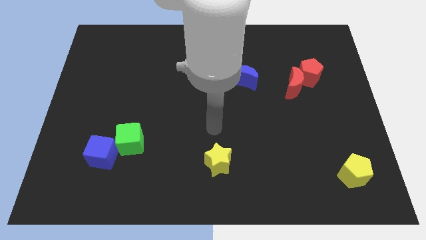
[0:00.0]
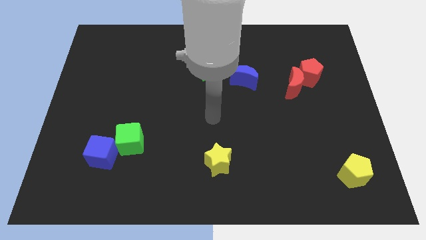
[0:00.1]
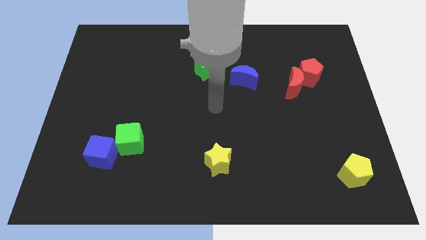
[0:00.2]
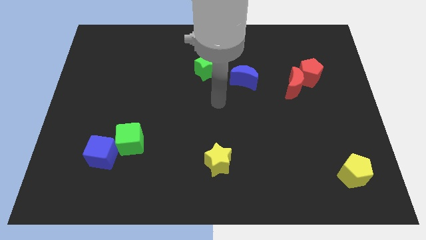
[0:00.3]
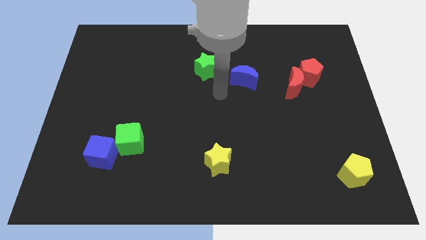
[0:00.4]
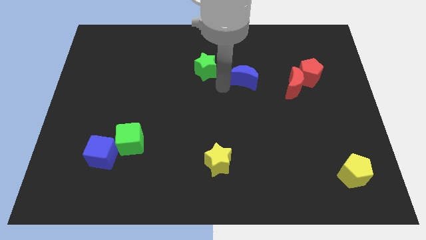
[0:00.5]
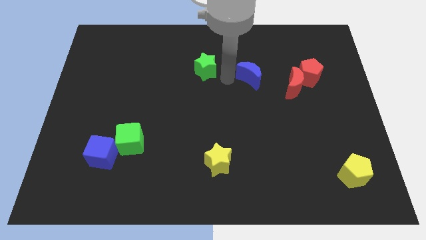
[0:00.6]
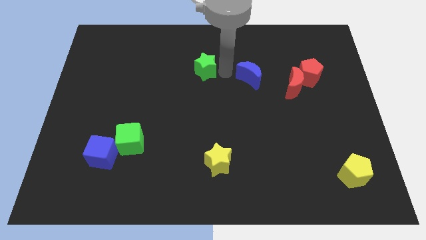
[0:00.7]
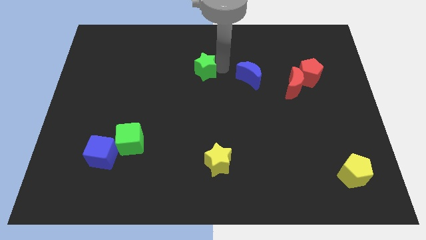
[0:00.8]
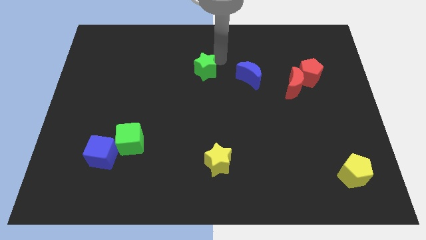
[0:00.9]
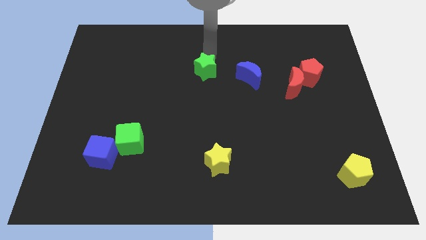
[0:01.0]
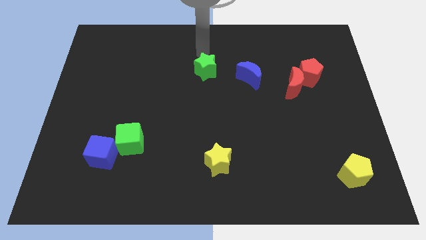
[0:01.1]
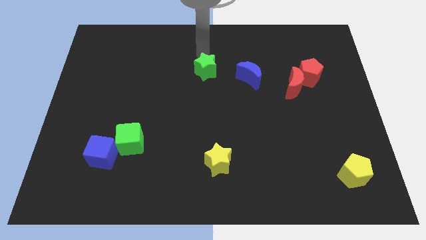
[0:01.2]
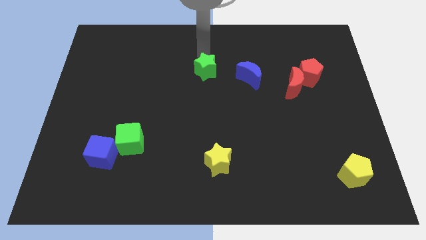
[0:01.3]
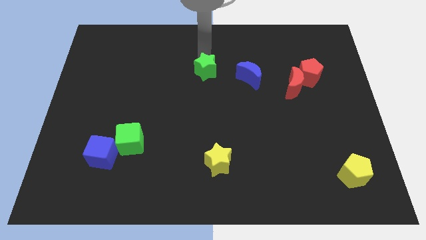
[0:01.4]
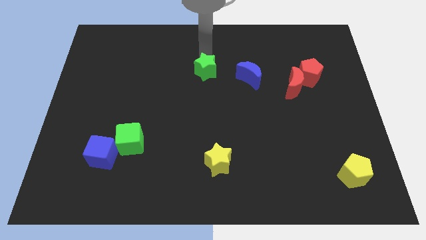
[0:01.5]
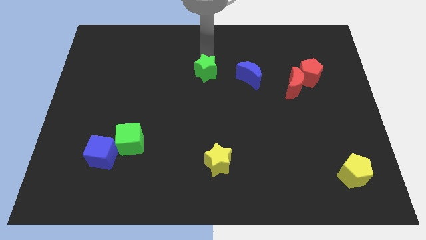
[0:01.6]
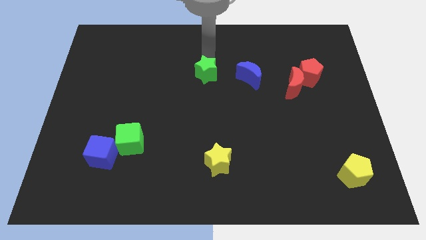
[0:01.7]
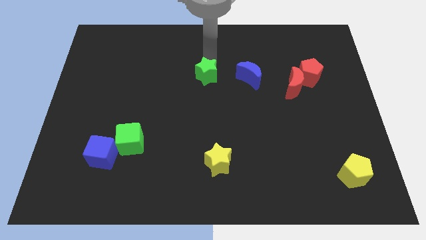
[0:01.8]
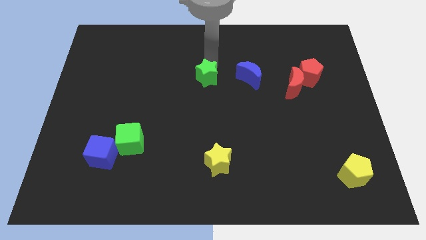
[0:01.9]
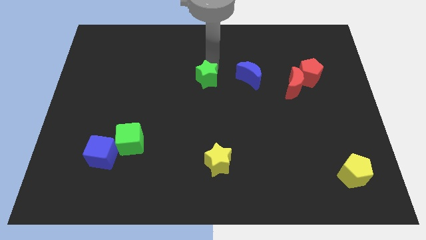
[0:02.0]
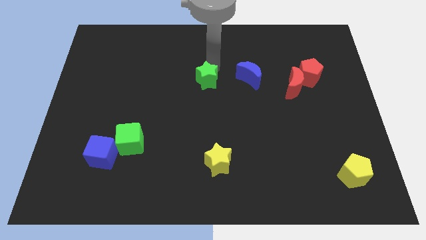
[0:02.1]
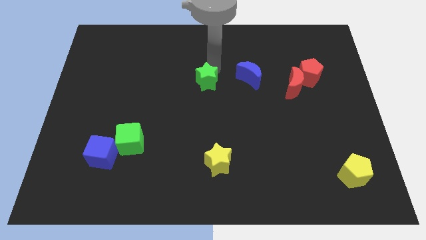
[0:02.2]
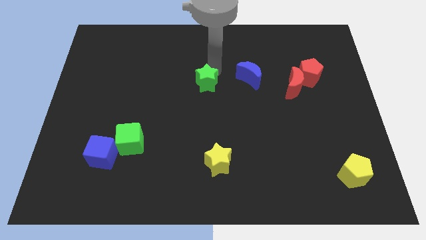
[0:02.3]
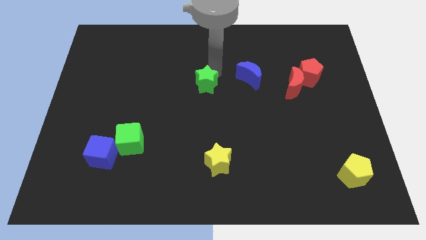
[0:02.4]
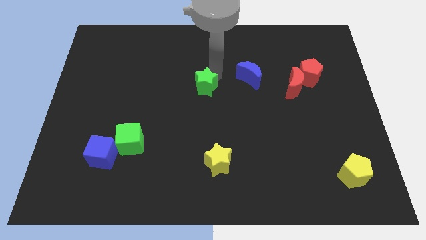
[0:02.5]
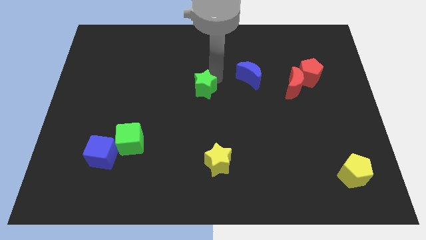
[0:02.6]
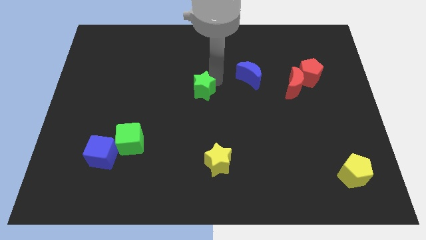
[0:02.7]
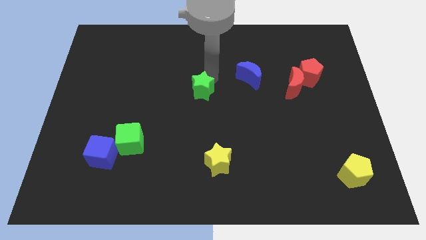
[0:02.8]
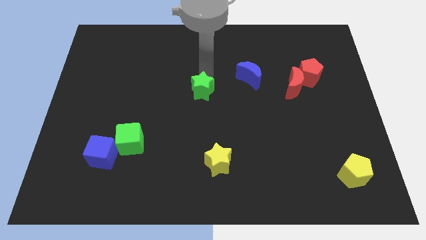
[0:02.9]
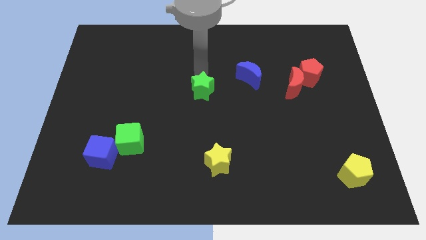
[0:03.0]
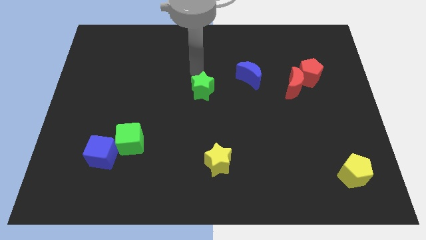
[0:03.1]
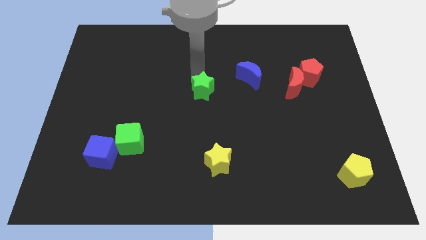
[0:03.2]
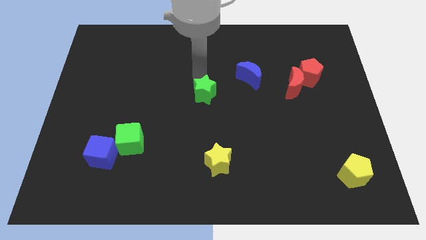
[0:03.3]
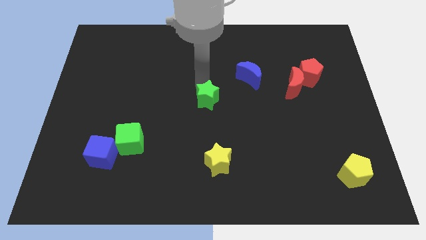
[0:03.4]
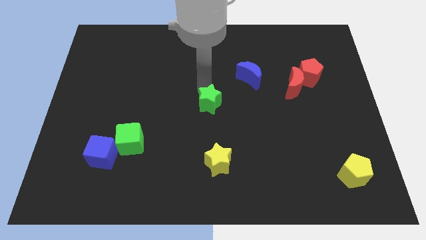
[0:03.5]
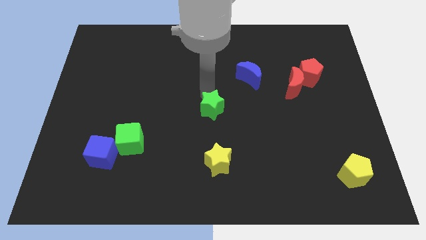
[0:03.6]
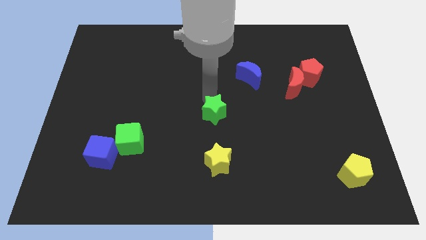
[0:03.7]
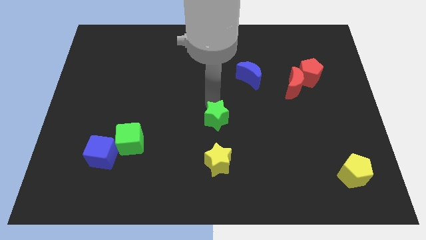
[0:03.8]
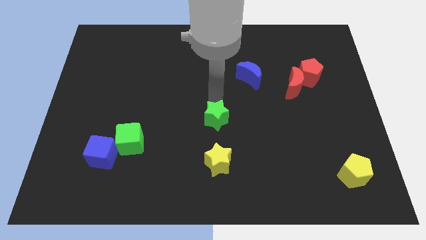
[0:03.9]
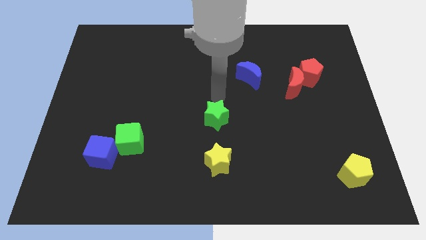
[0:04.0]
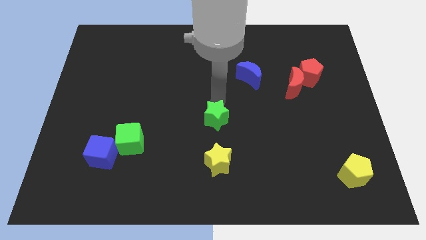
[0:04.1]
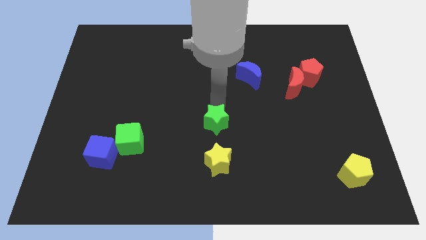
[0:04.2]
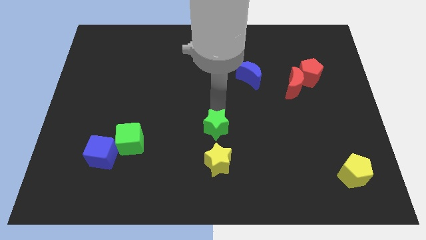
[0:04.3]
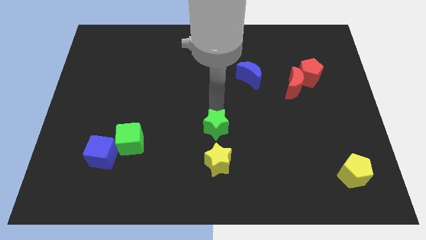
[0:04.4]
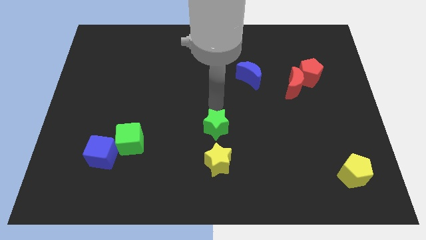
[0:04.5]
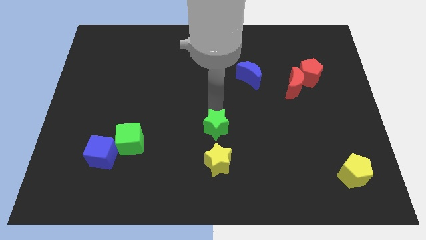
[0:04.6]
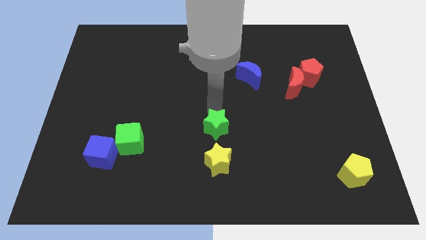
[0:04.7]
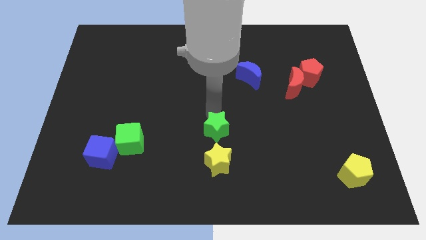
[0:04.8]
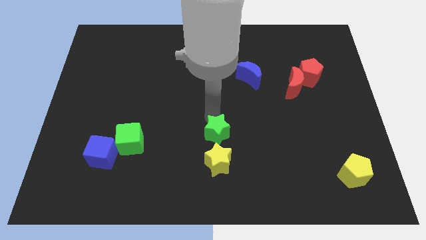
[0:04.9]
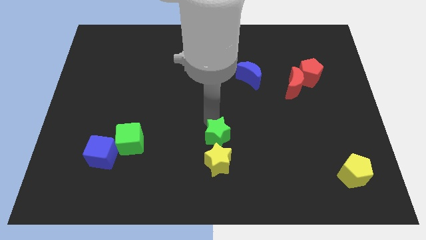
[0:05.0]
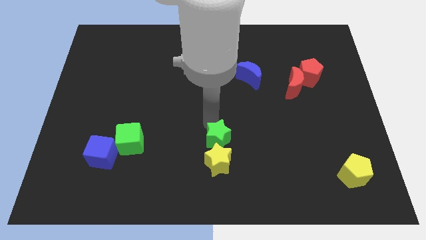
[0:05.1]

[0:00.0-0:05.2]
move the green star close to the yellow star

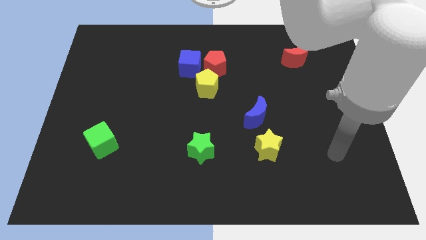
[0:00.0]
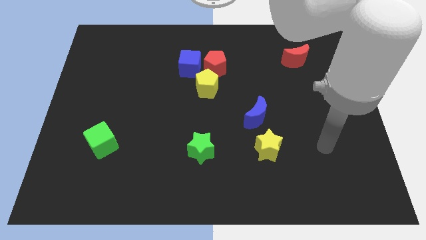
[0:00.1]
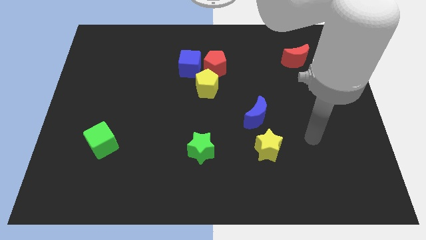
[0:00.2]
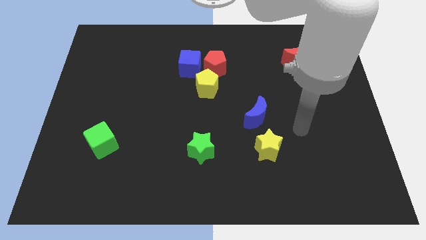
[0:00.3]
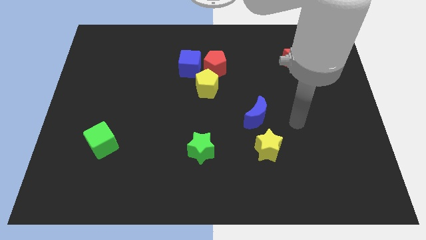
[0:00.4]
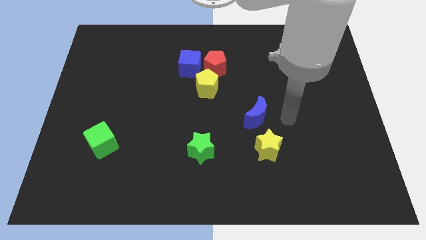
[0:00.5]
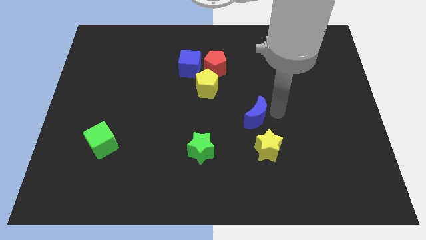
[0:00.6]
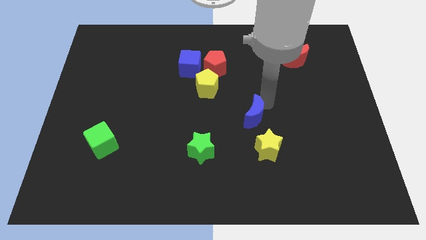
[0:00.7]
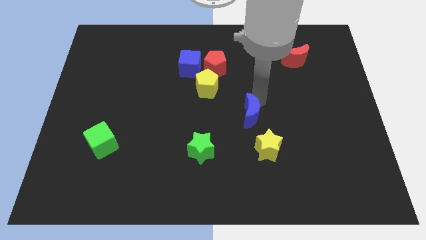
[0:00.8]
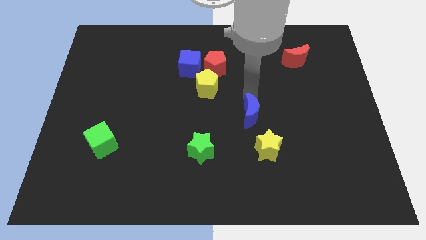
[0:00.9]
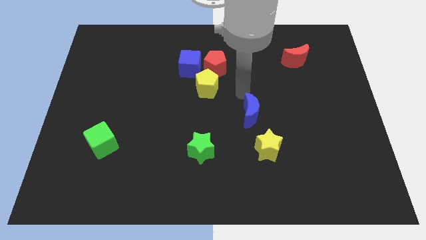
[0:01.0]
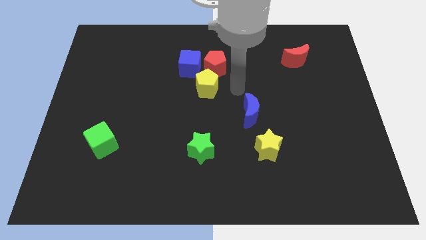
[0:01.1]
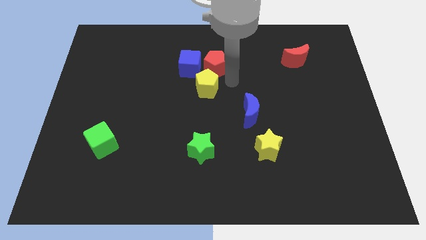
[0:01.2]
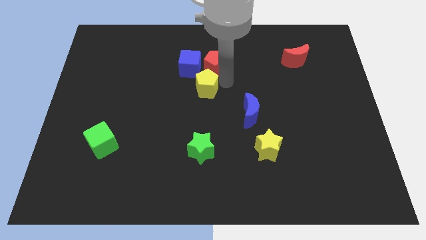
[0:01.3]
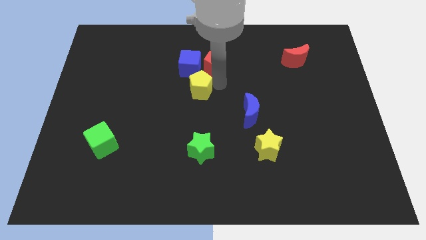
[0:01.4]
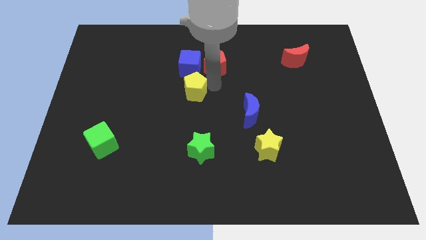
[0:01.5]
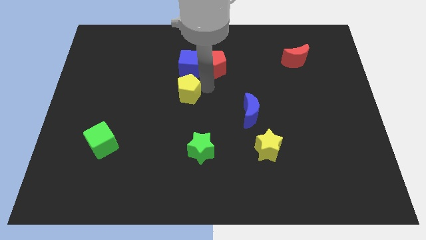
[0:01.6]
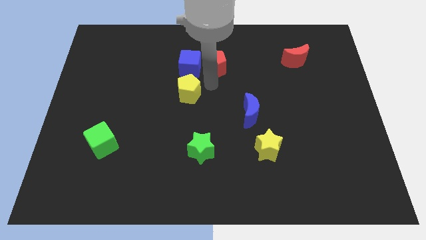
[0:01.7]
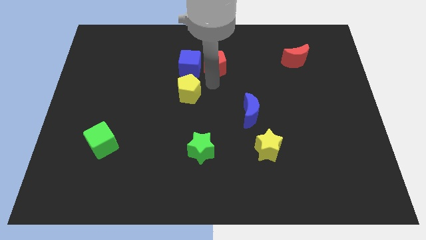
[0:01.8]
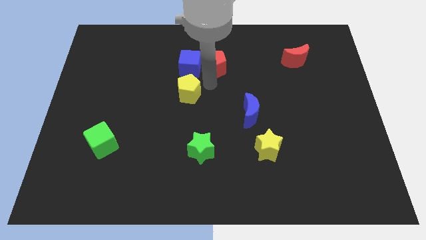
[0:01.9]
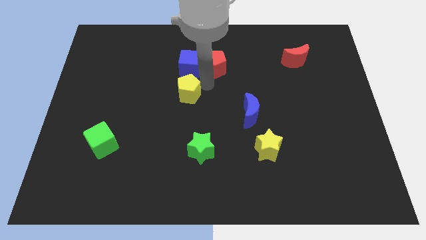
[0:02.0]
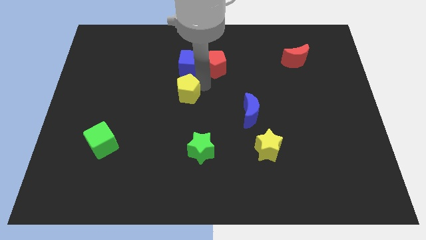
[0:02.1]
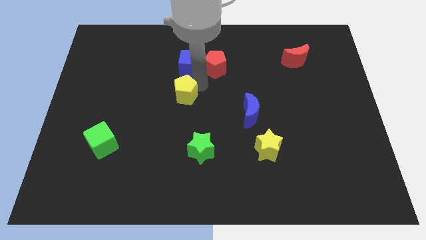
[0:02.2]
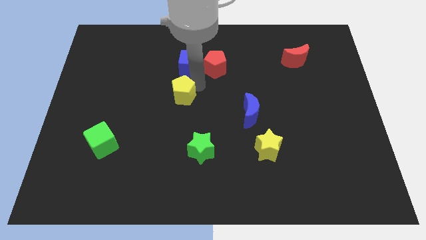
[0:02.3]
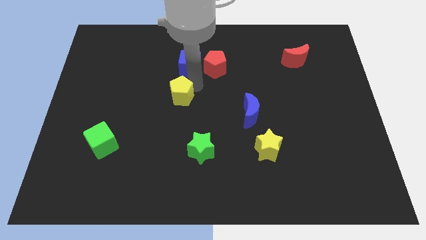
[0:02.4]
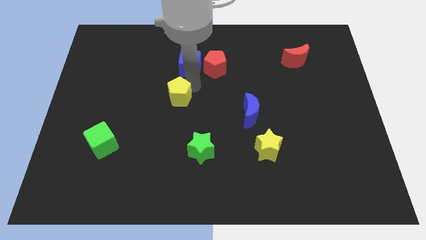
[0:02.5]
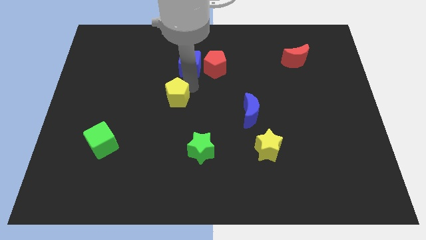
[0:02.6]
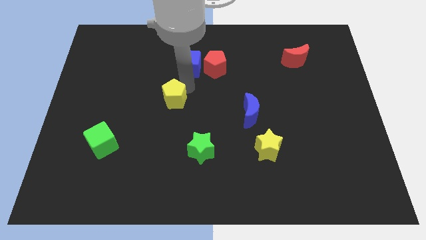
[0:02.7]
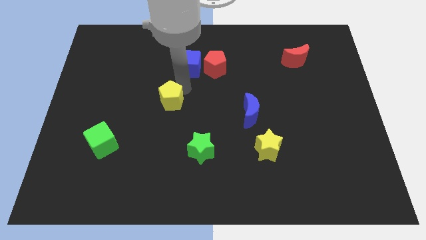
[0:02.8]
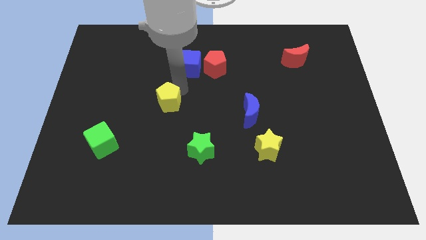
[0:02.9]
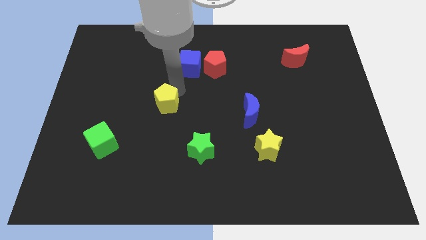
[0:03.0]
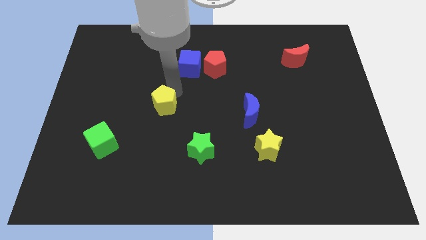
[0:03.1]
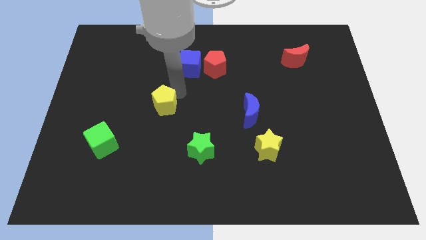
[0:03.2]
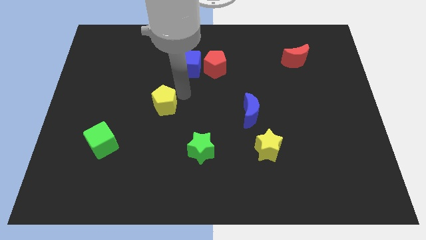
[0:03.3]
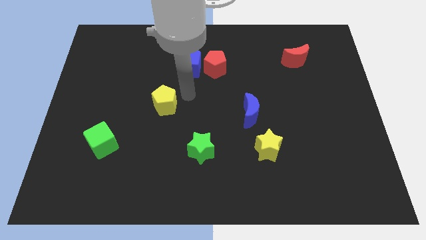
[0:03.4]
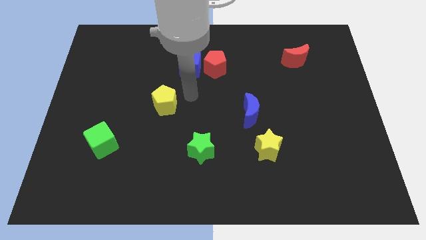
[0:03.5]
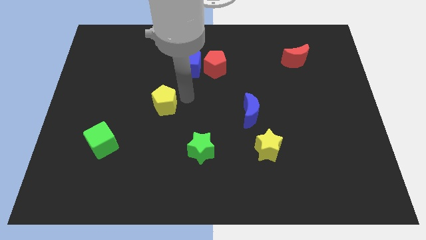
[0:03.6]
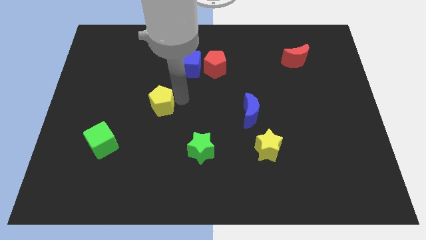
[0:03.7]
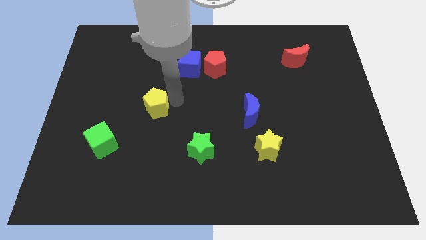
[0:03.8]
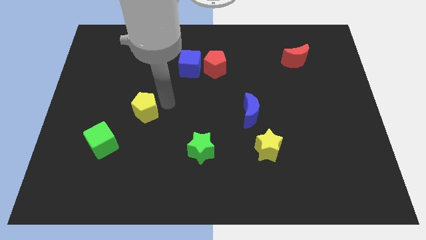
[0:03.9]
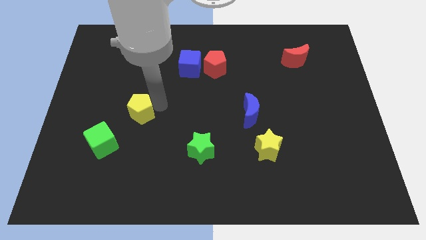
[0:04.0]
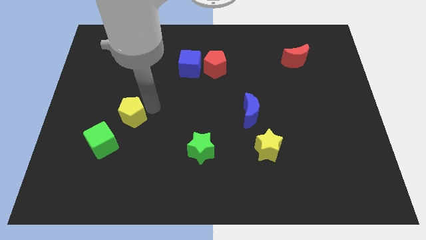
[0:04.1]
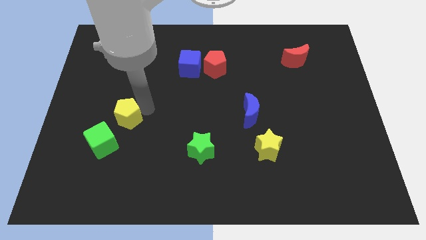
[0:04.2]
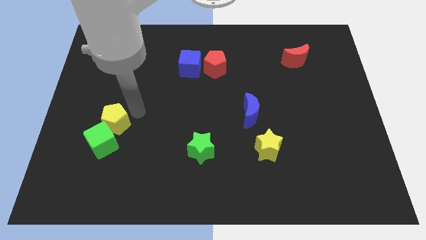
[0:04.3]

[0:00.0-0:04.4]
slide the yellow pentagon close to the green cube
